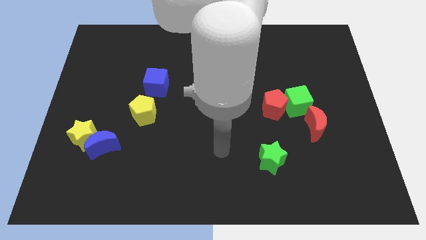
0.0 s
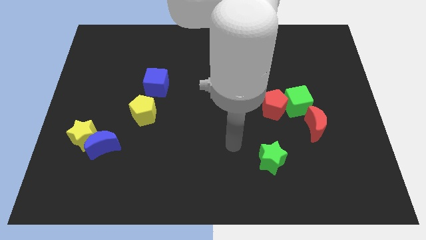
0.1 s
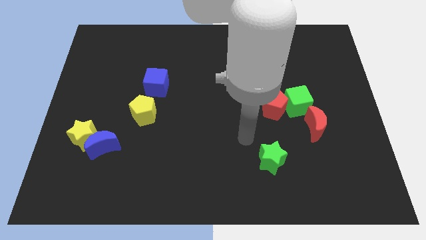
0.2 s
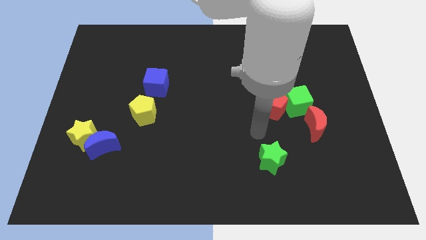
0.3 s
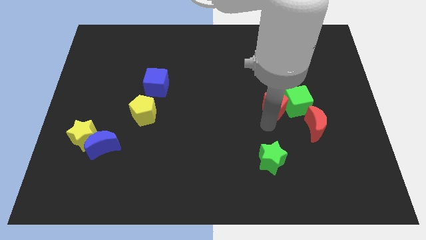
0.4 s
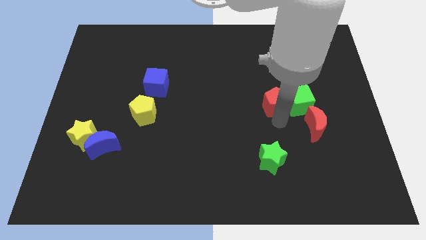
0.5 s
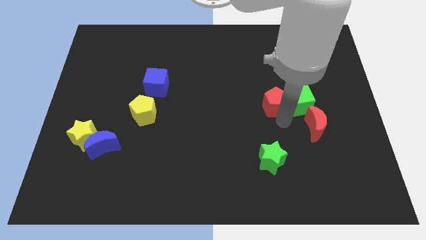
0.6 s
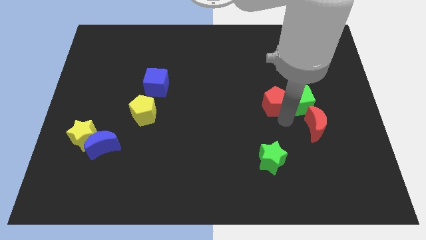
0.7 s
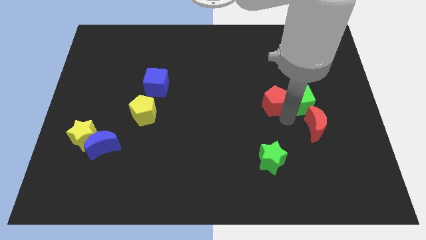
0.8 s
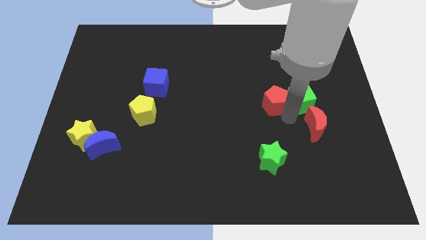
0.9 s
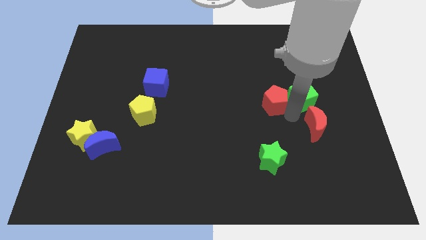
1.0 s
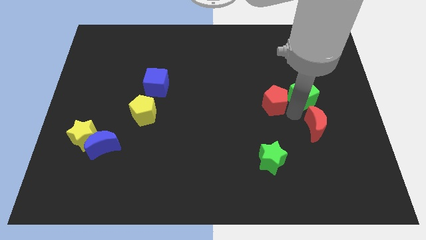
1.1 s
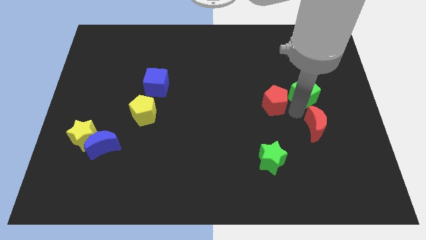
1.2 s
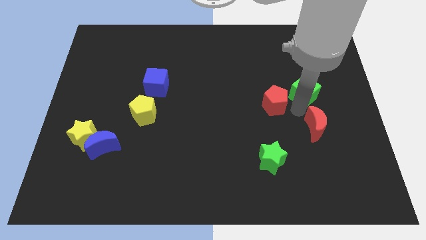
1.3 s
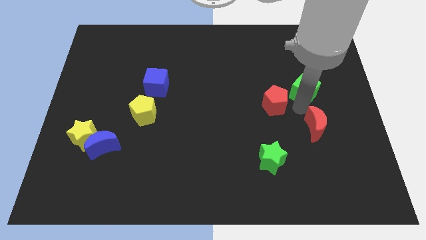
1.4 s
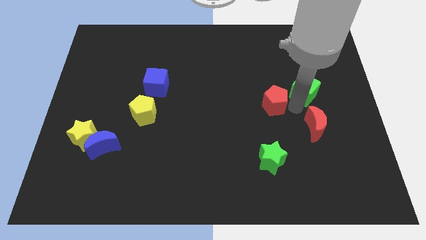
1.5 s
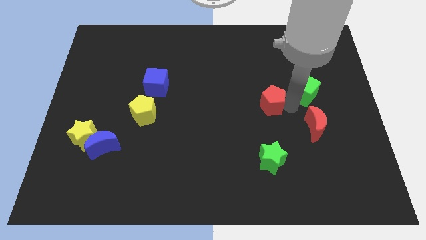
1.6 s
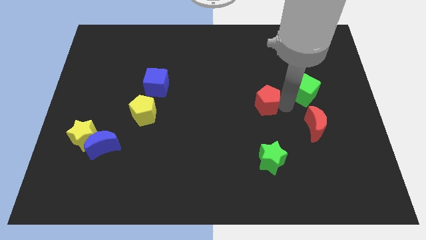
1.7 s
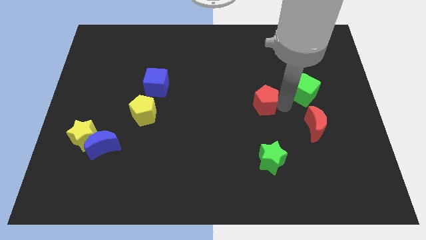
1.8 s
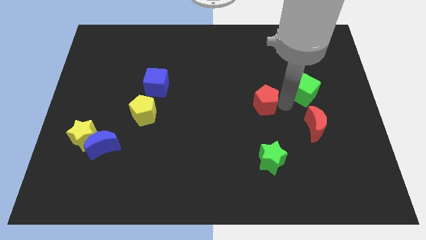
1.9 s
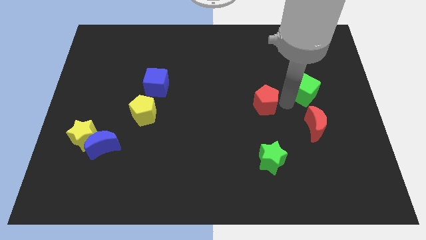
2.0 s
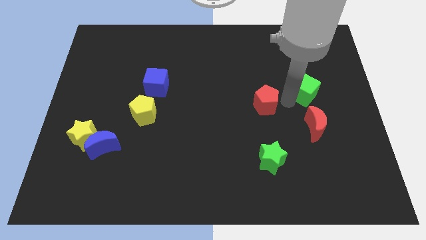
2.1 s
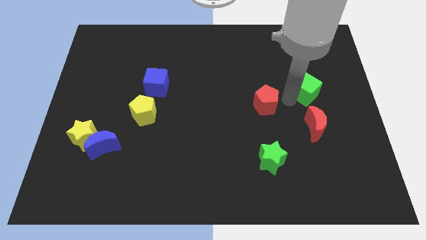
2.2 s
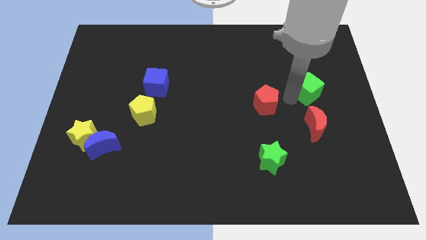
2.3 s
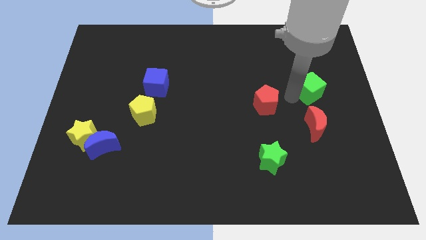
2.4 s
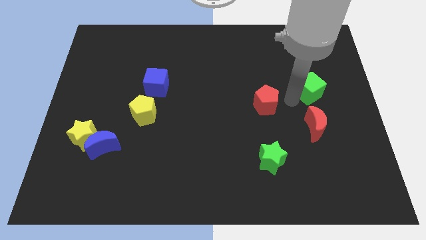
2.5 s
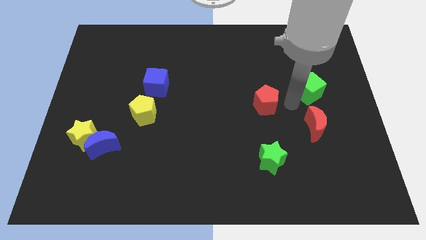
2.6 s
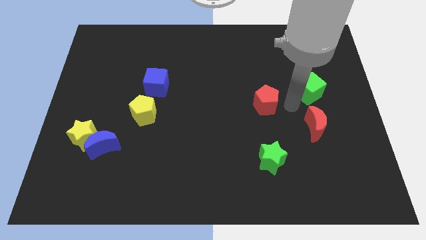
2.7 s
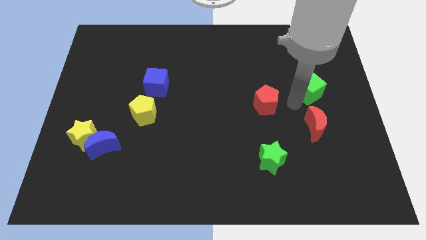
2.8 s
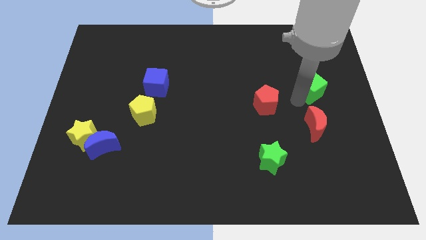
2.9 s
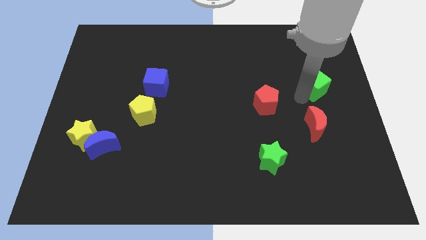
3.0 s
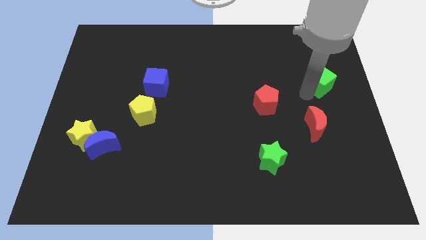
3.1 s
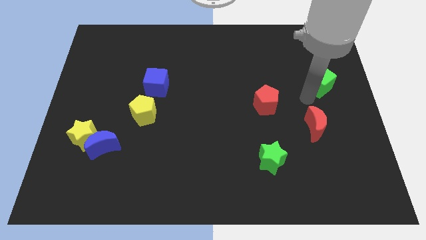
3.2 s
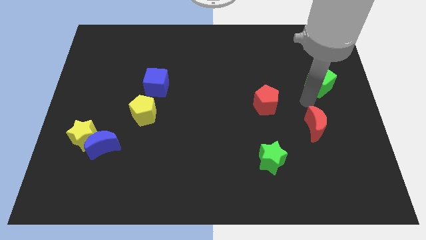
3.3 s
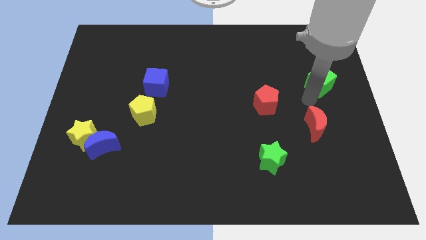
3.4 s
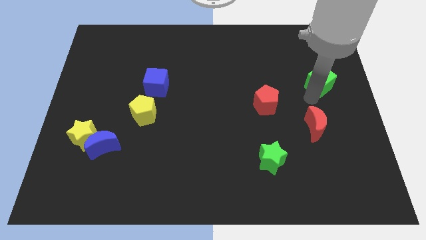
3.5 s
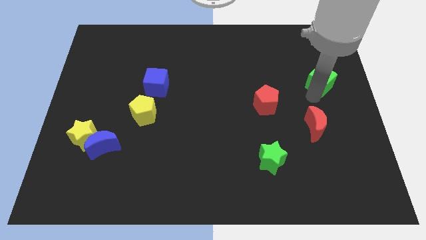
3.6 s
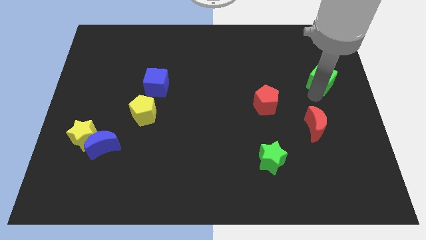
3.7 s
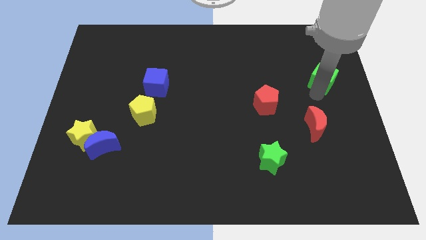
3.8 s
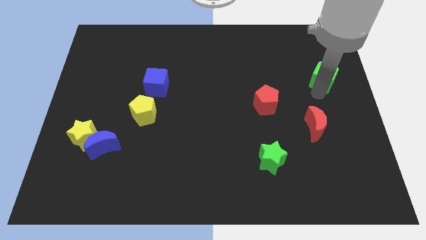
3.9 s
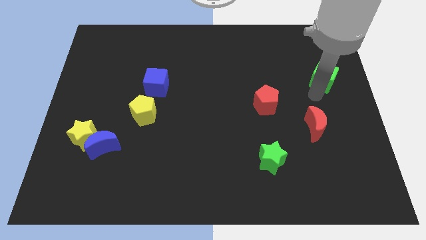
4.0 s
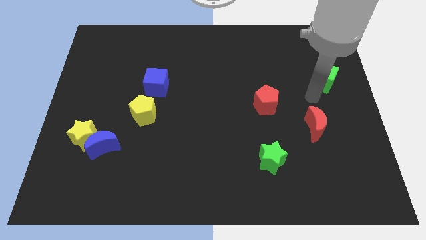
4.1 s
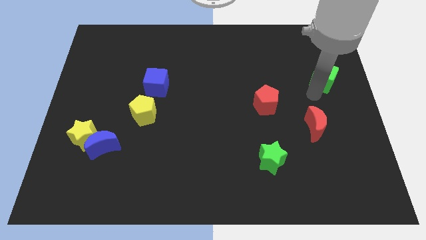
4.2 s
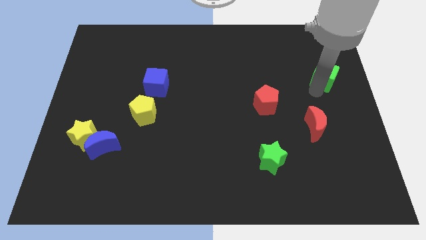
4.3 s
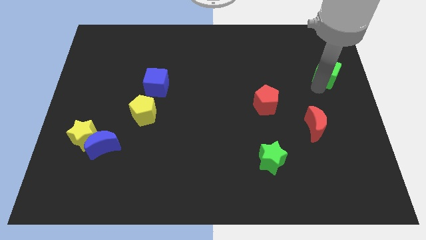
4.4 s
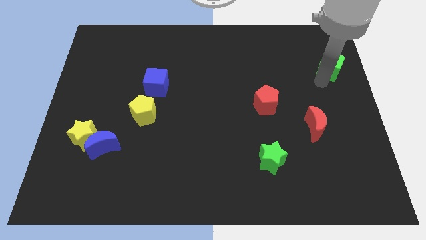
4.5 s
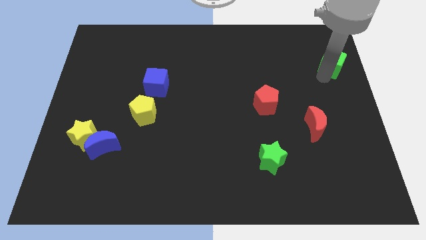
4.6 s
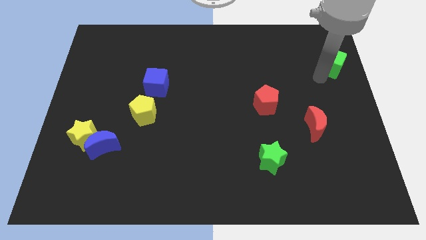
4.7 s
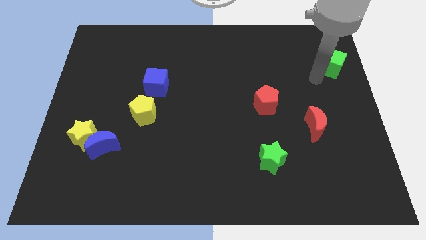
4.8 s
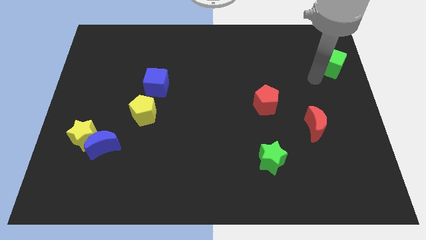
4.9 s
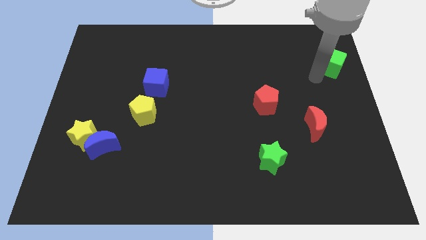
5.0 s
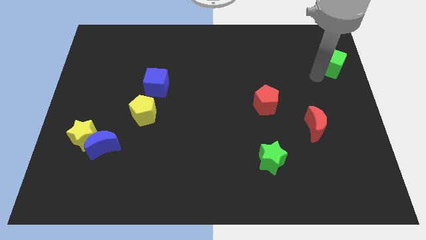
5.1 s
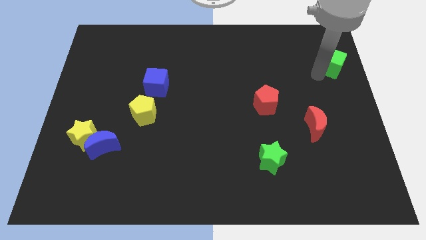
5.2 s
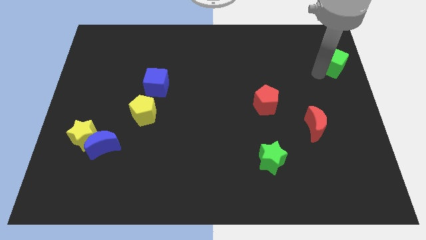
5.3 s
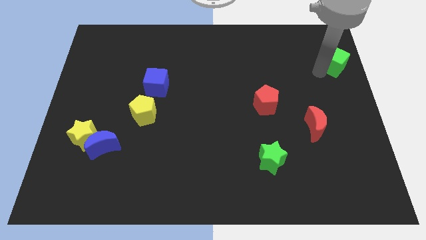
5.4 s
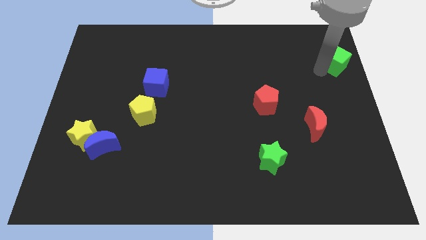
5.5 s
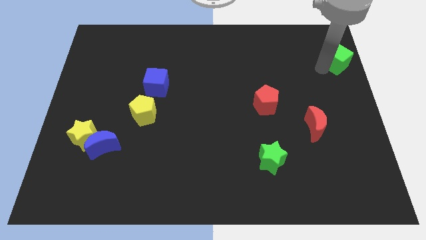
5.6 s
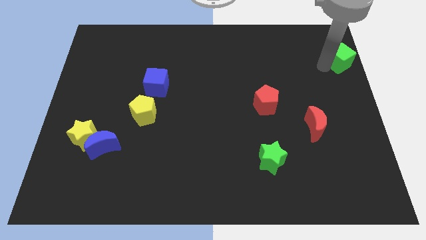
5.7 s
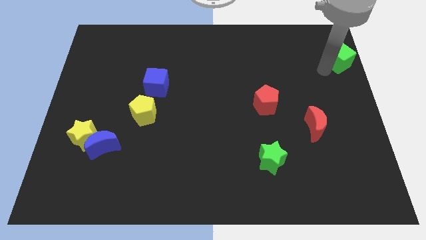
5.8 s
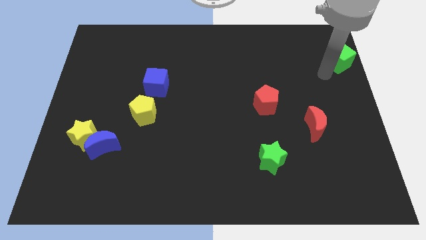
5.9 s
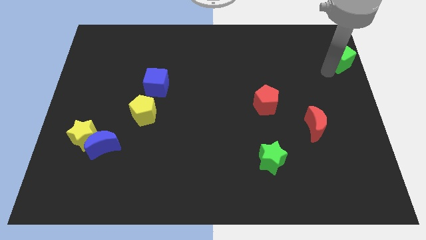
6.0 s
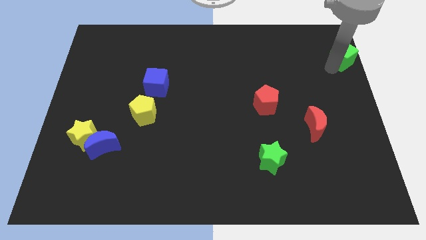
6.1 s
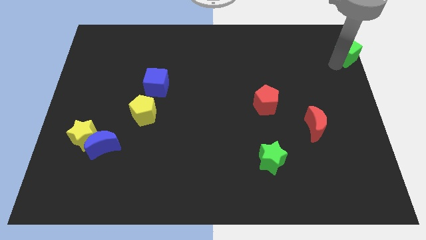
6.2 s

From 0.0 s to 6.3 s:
move the green cube to the top right
